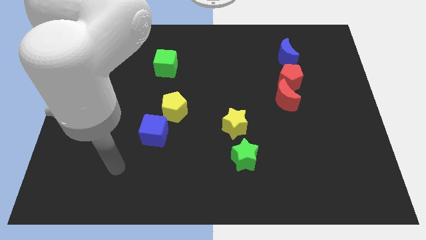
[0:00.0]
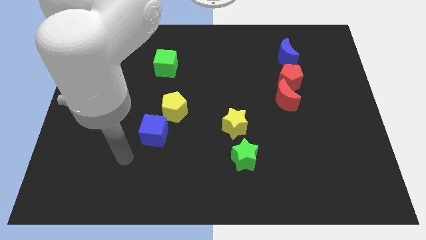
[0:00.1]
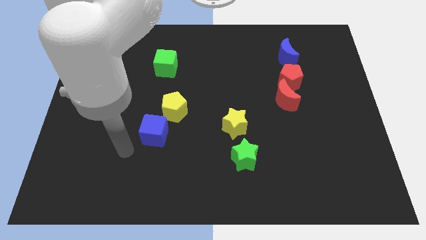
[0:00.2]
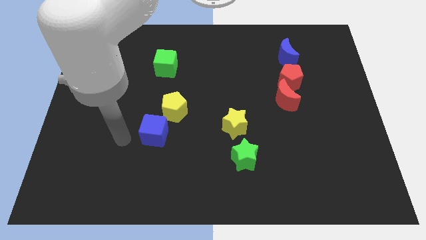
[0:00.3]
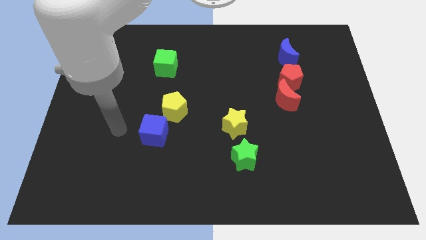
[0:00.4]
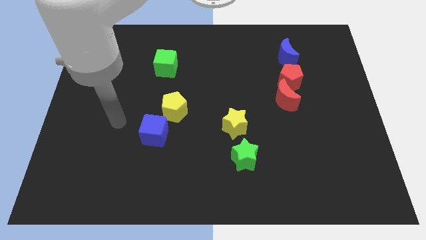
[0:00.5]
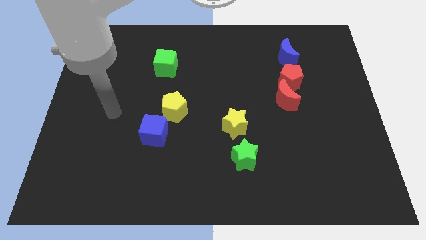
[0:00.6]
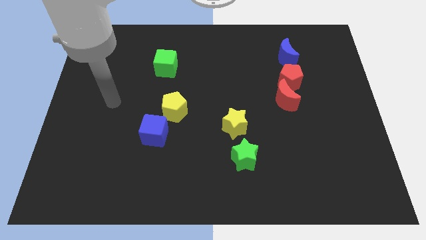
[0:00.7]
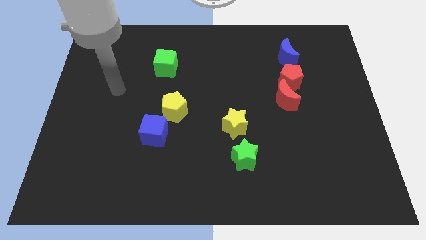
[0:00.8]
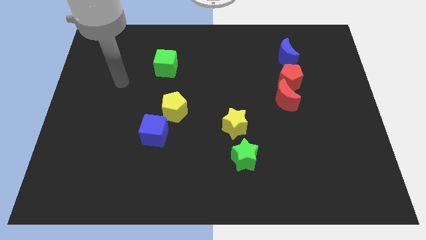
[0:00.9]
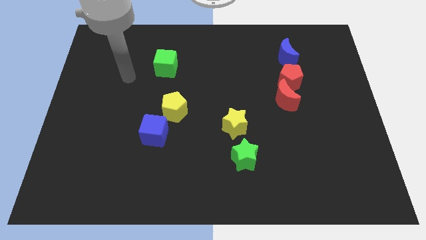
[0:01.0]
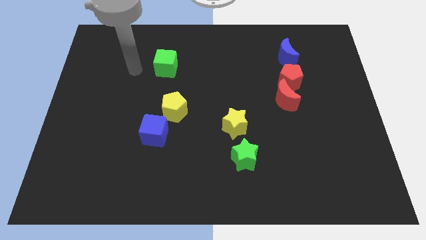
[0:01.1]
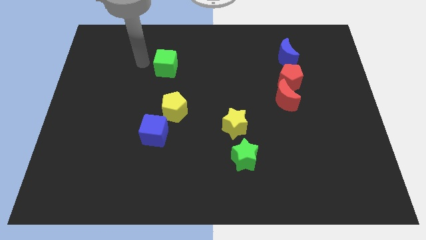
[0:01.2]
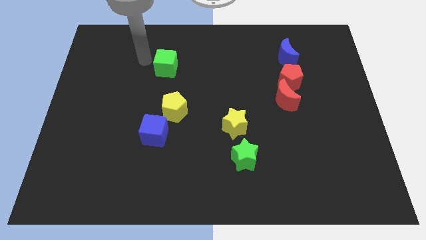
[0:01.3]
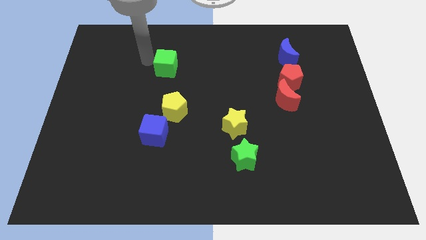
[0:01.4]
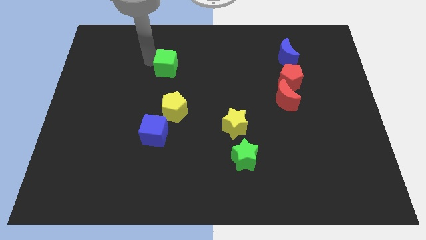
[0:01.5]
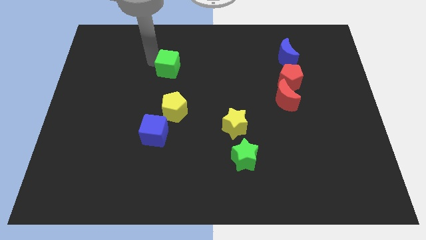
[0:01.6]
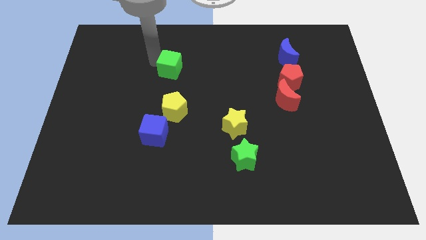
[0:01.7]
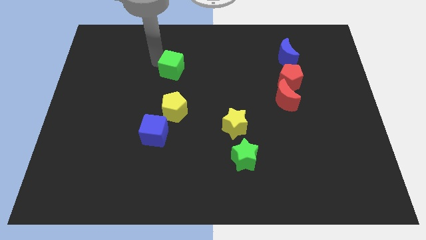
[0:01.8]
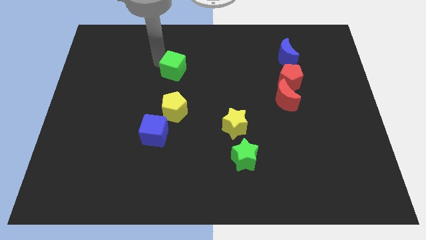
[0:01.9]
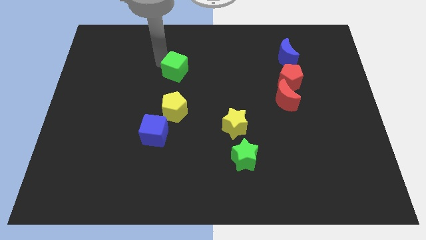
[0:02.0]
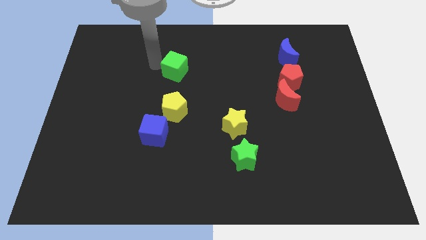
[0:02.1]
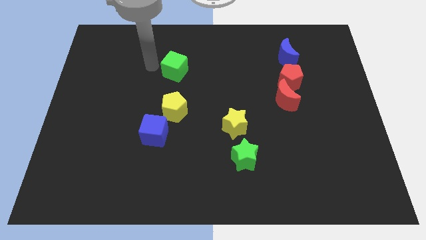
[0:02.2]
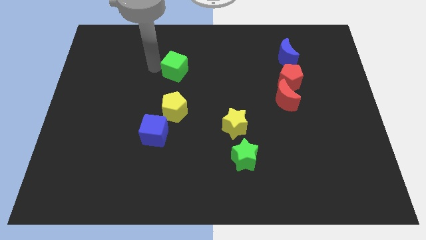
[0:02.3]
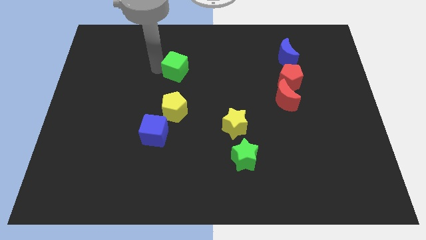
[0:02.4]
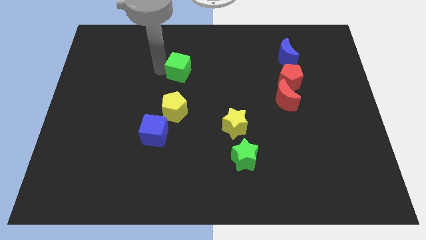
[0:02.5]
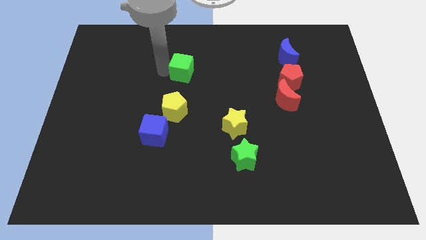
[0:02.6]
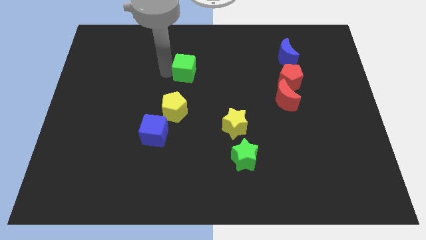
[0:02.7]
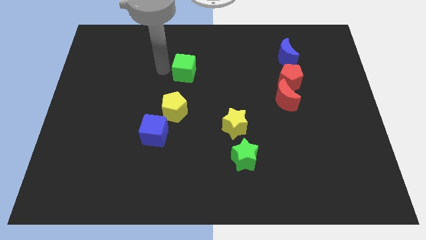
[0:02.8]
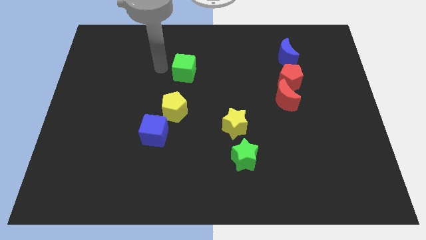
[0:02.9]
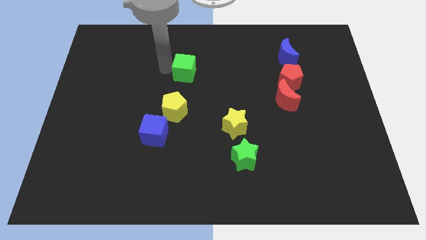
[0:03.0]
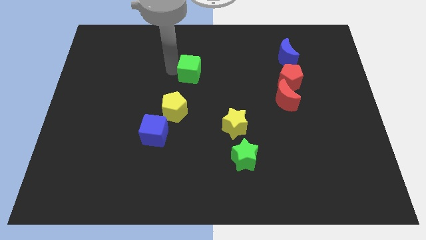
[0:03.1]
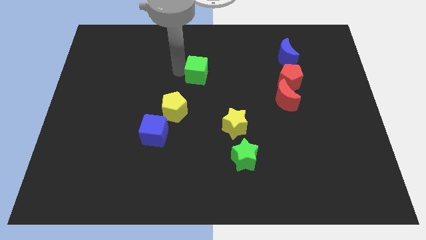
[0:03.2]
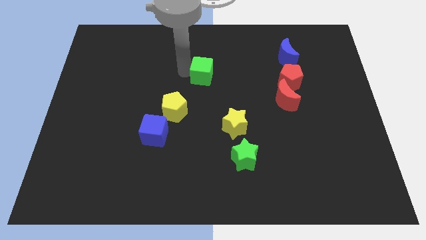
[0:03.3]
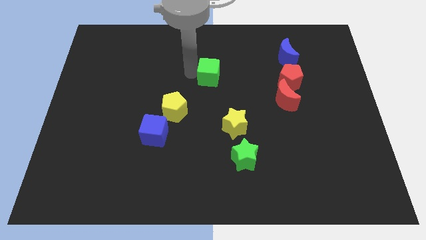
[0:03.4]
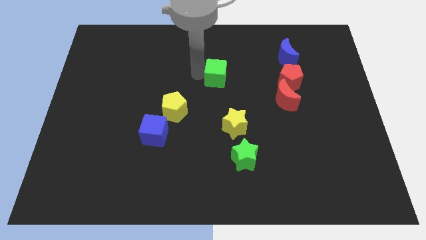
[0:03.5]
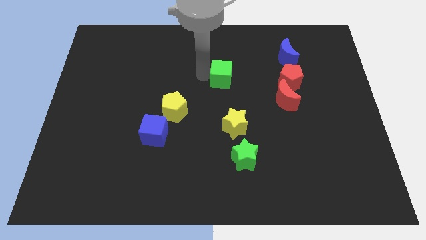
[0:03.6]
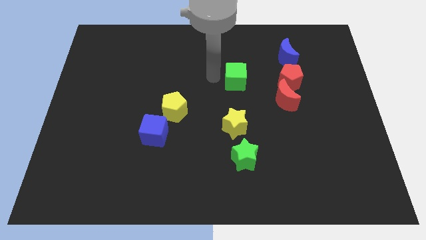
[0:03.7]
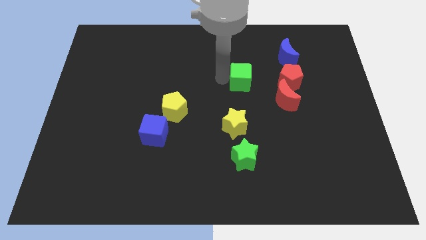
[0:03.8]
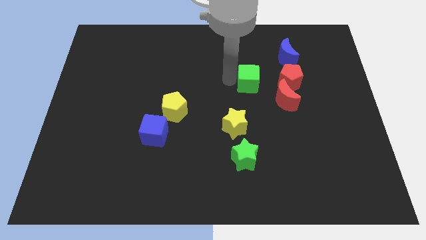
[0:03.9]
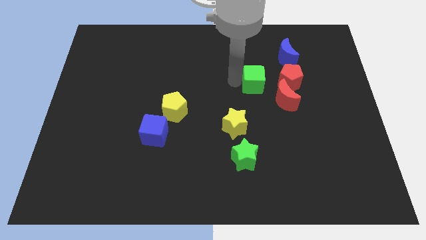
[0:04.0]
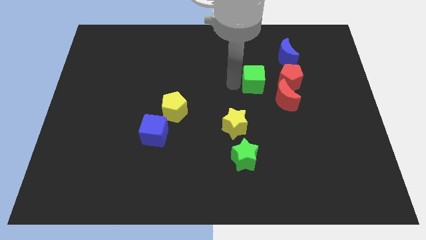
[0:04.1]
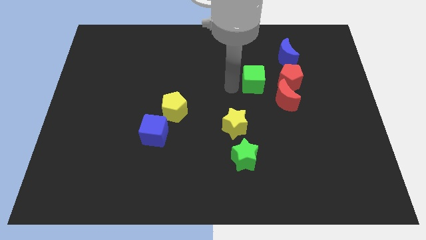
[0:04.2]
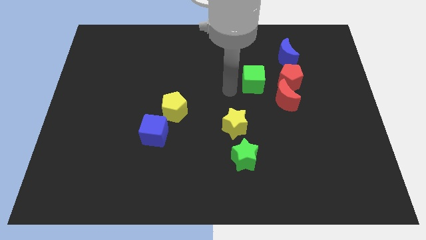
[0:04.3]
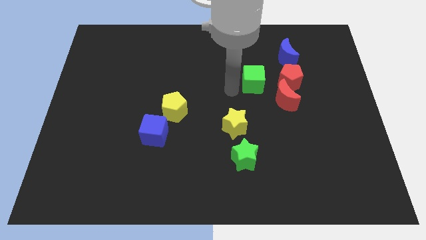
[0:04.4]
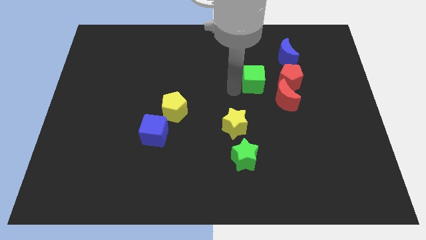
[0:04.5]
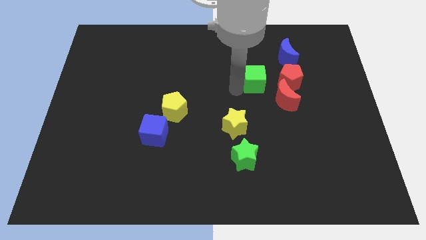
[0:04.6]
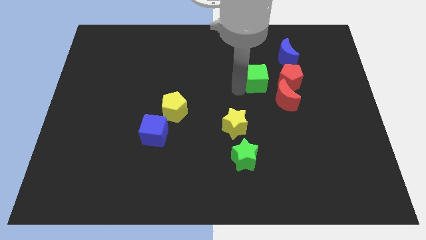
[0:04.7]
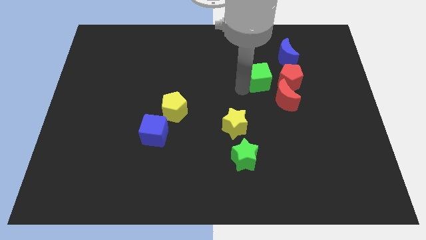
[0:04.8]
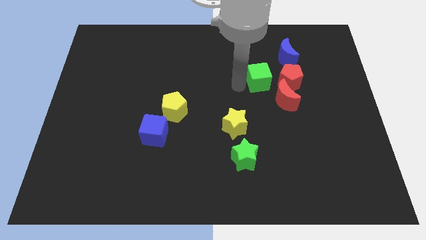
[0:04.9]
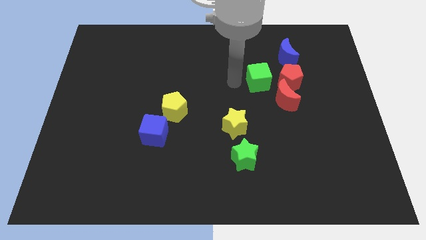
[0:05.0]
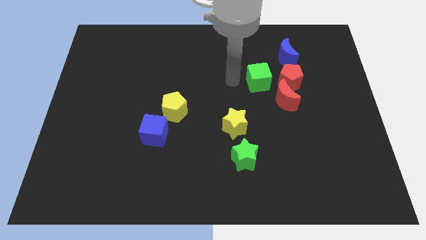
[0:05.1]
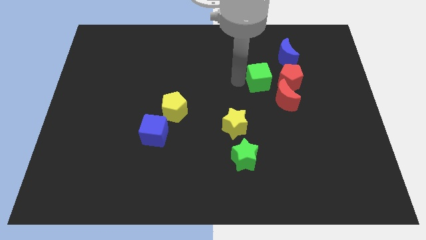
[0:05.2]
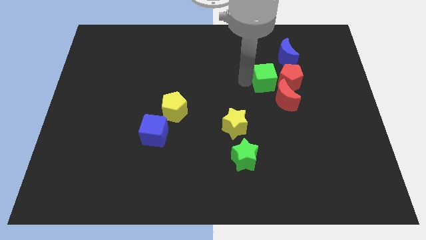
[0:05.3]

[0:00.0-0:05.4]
push the green cube towards the red pentagon

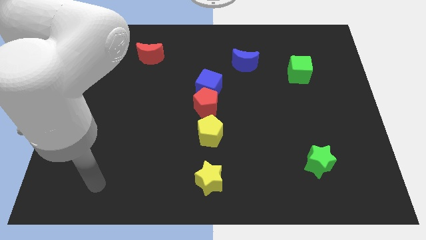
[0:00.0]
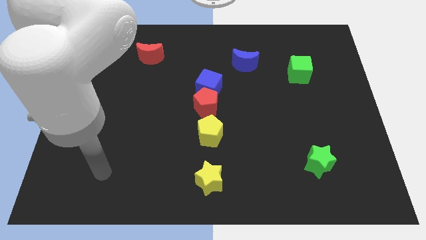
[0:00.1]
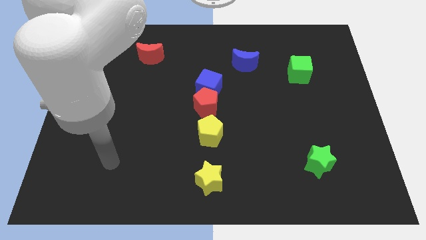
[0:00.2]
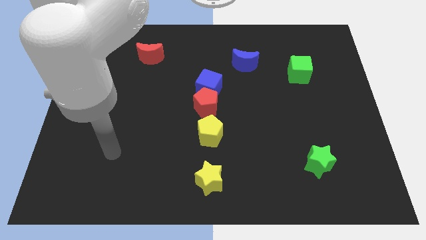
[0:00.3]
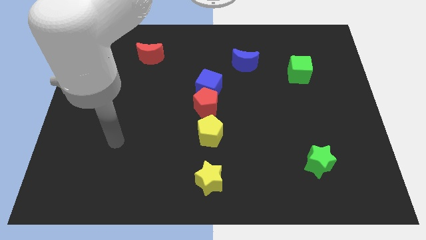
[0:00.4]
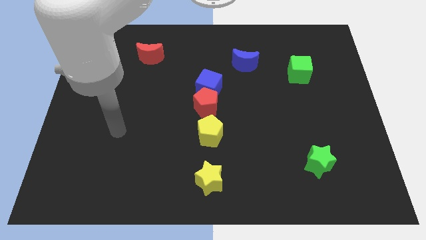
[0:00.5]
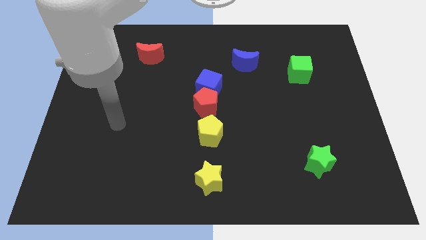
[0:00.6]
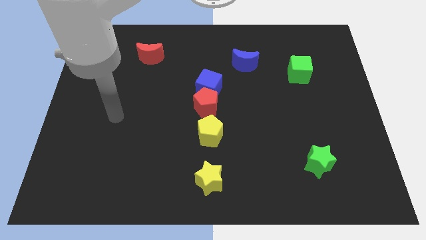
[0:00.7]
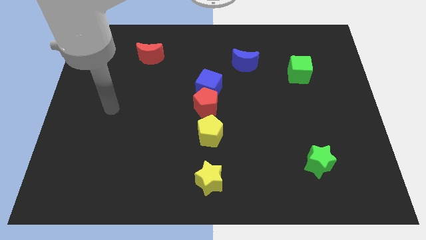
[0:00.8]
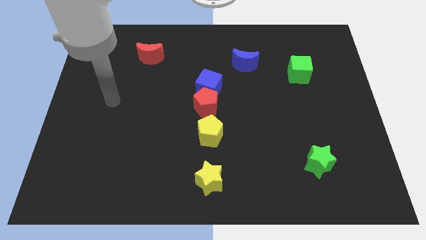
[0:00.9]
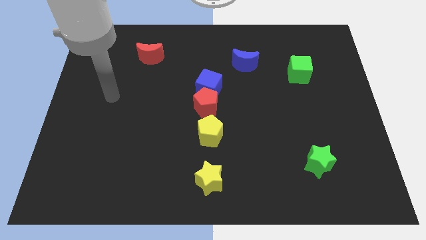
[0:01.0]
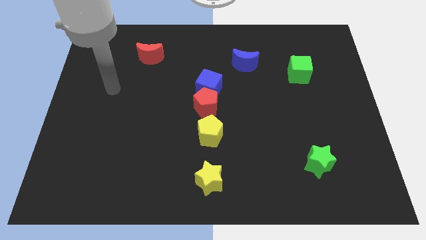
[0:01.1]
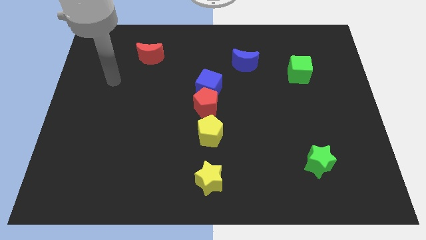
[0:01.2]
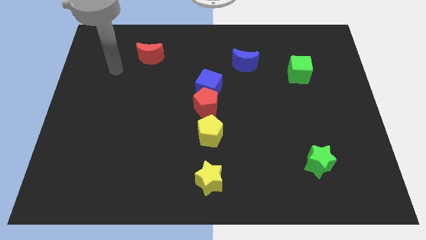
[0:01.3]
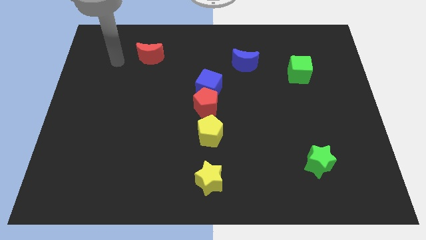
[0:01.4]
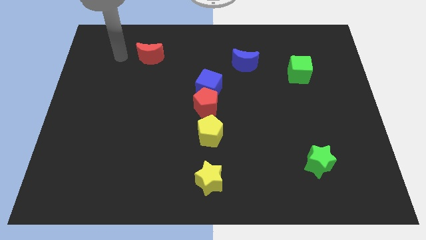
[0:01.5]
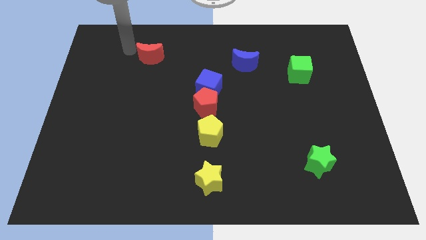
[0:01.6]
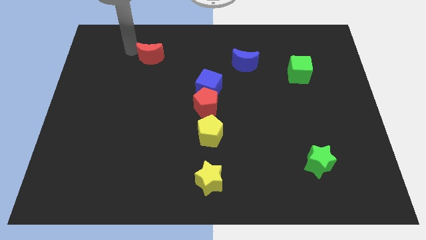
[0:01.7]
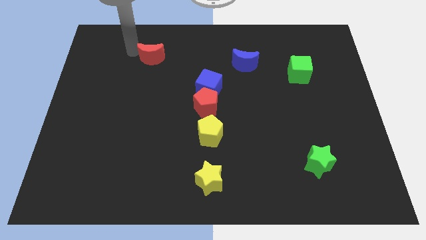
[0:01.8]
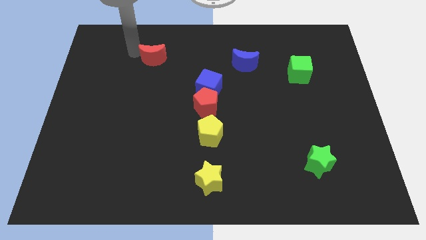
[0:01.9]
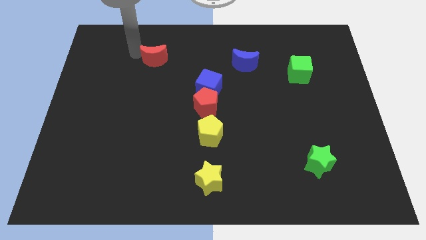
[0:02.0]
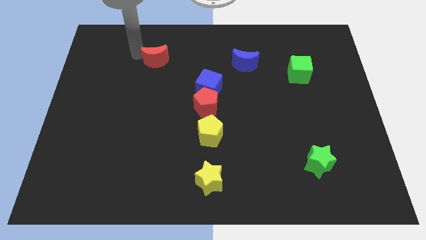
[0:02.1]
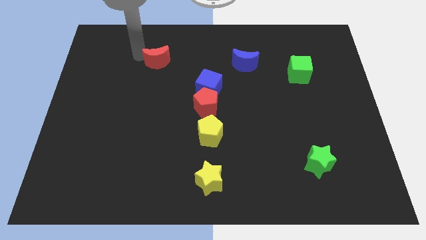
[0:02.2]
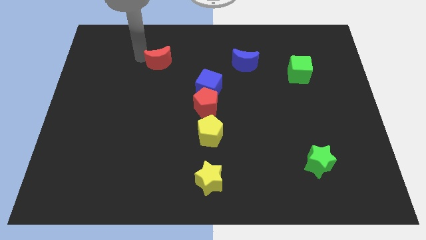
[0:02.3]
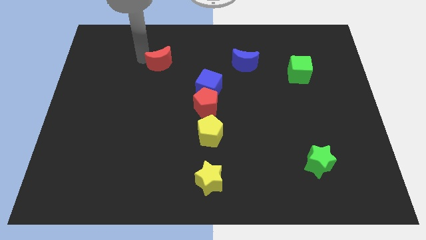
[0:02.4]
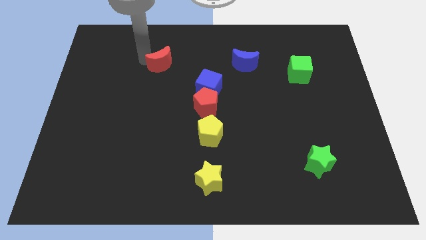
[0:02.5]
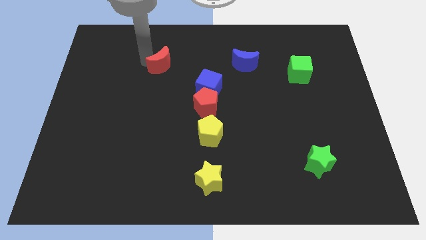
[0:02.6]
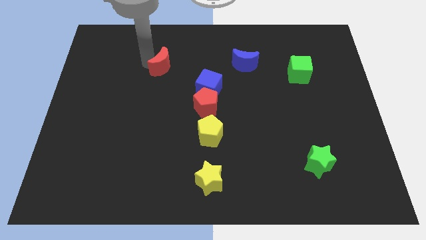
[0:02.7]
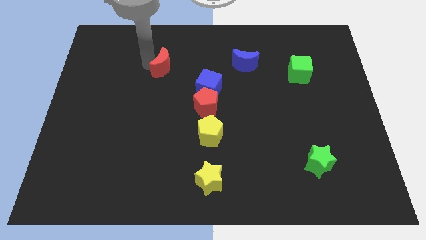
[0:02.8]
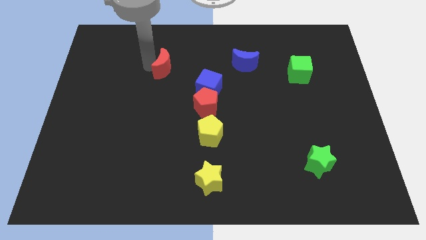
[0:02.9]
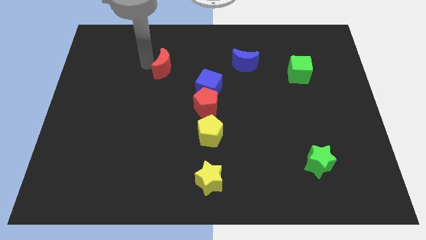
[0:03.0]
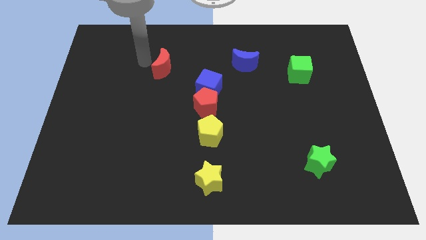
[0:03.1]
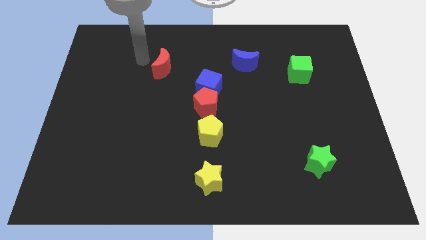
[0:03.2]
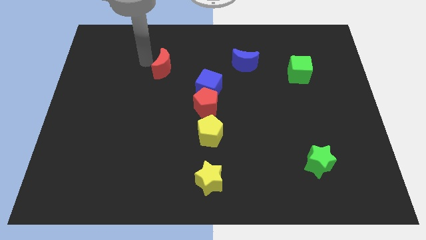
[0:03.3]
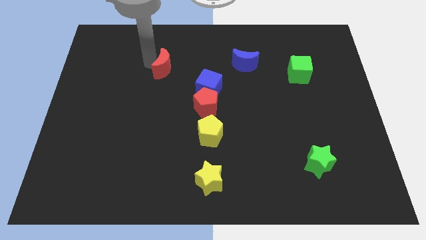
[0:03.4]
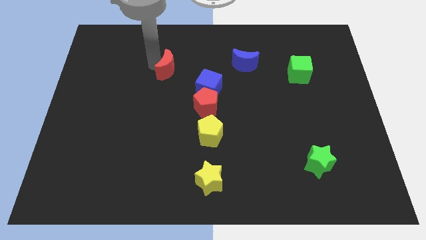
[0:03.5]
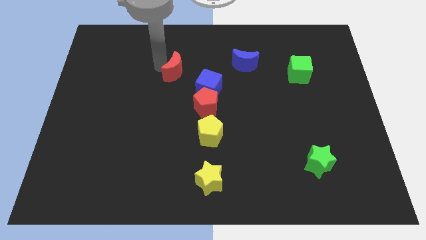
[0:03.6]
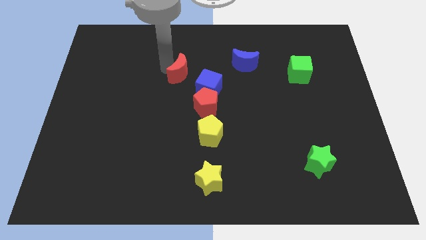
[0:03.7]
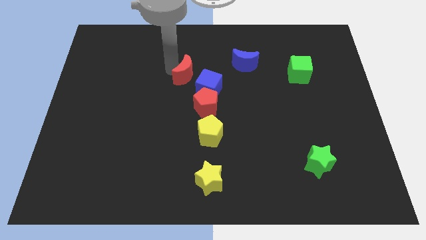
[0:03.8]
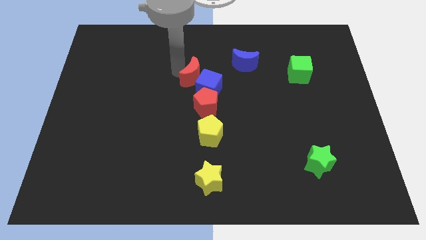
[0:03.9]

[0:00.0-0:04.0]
slide the red moon close to the blue cube
